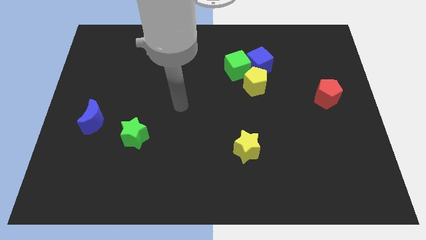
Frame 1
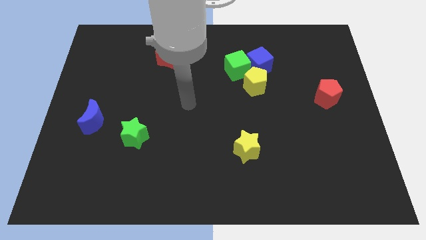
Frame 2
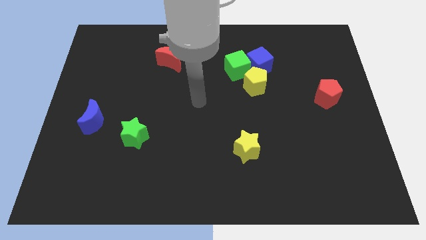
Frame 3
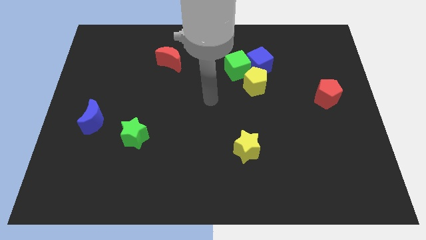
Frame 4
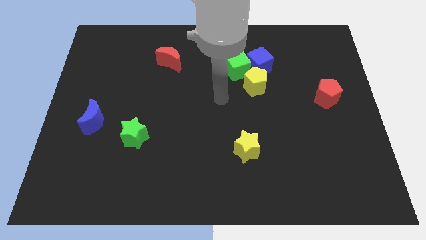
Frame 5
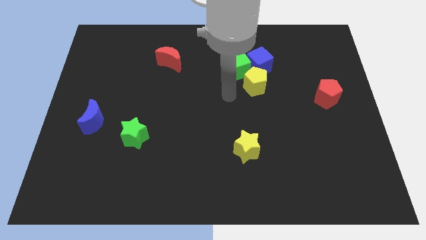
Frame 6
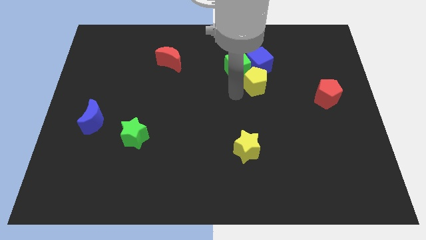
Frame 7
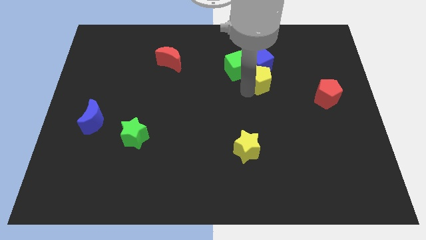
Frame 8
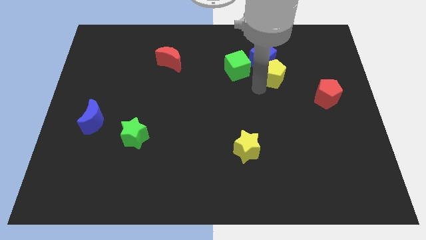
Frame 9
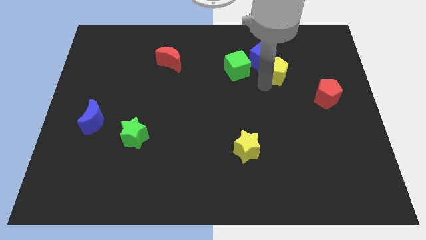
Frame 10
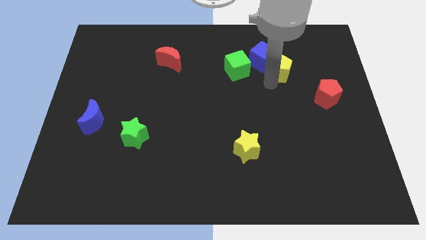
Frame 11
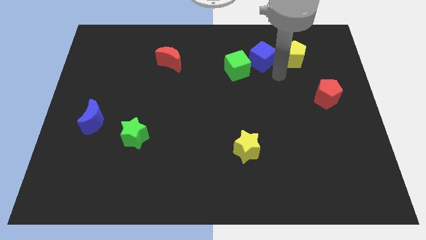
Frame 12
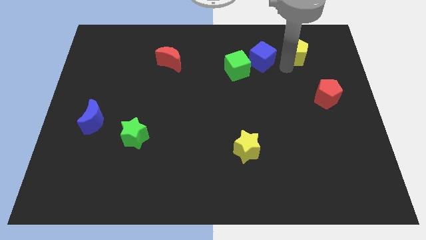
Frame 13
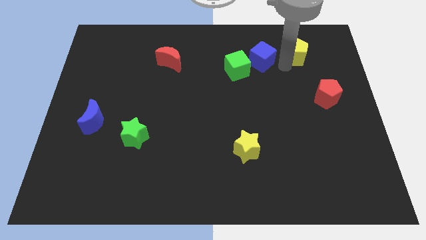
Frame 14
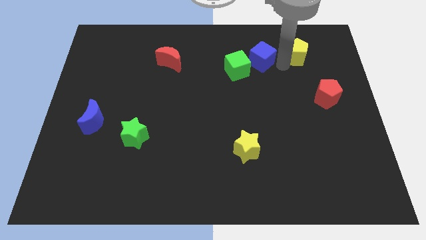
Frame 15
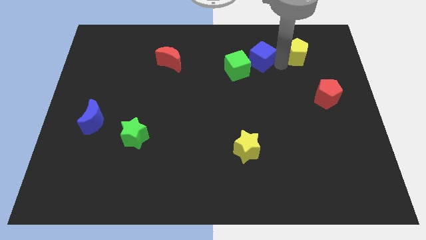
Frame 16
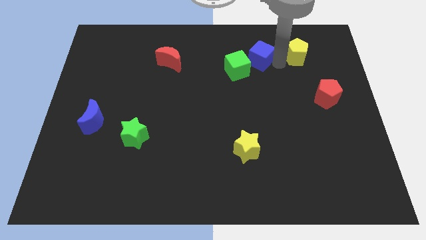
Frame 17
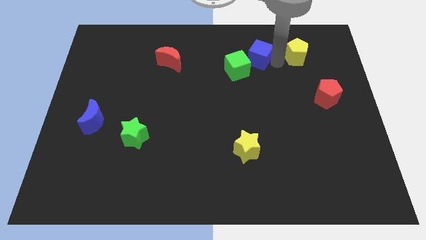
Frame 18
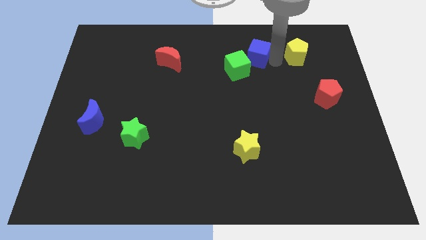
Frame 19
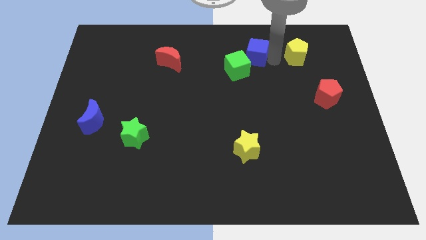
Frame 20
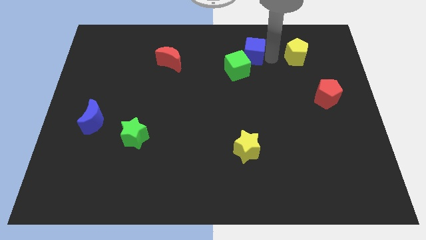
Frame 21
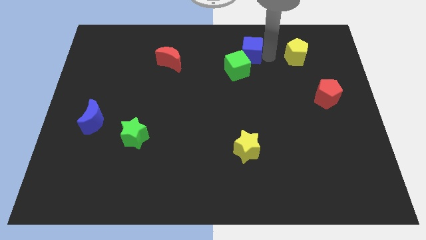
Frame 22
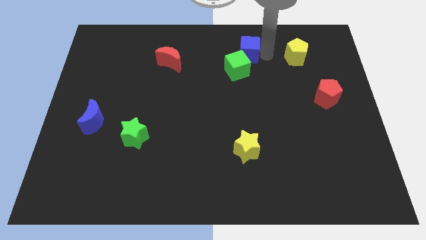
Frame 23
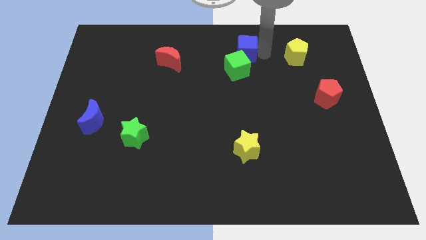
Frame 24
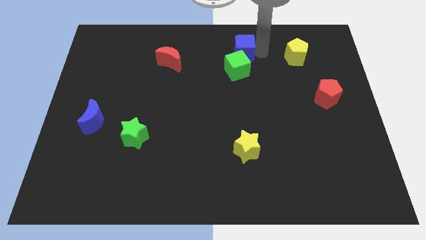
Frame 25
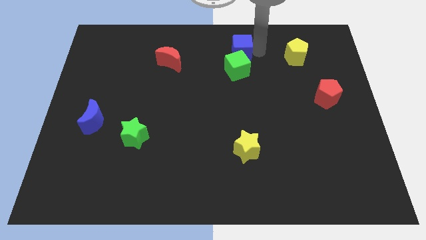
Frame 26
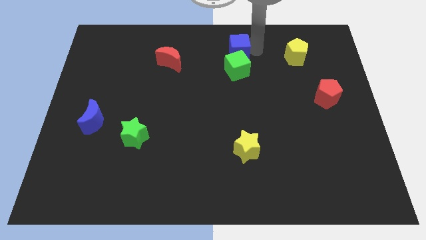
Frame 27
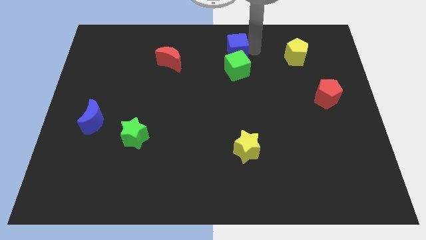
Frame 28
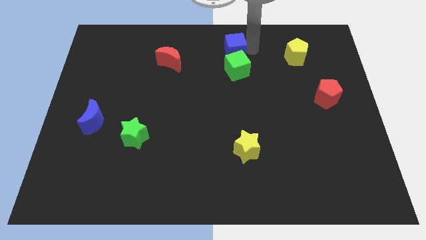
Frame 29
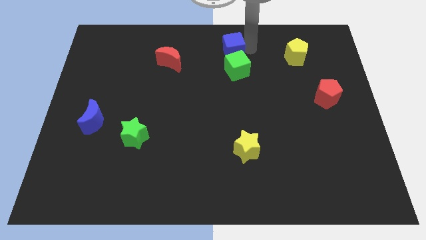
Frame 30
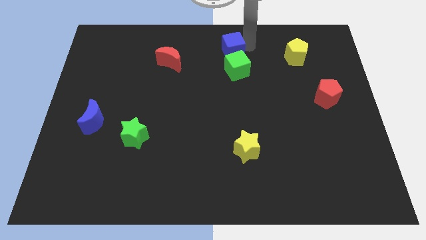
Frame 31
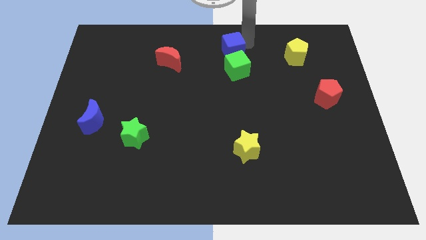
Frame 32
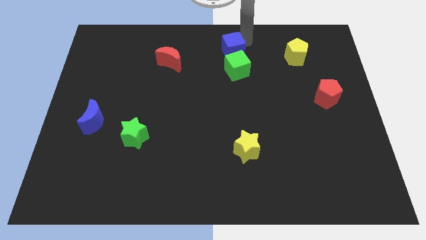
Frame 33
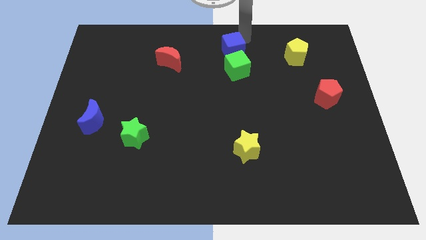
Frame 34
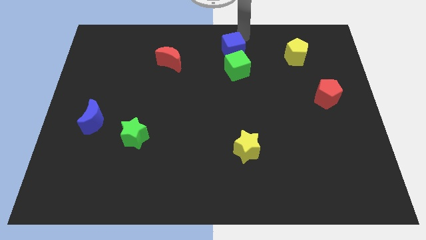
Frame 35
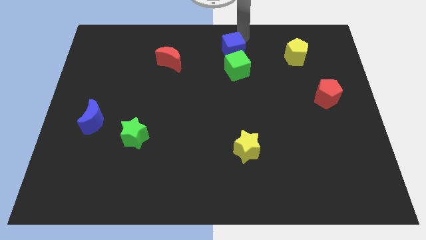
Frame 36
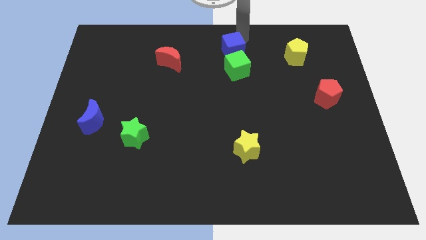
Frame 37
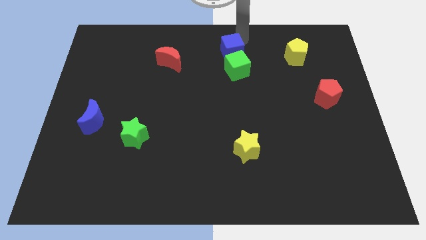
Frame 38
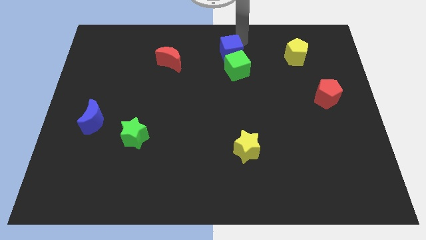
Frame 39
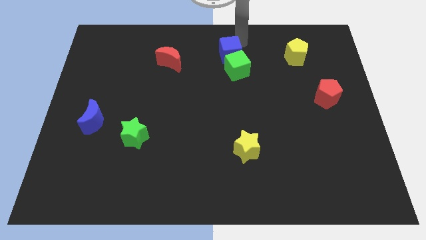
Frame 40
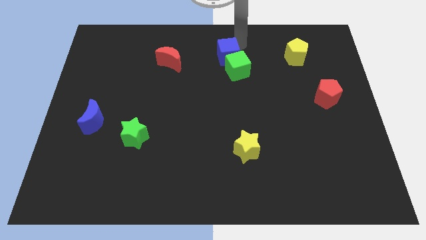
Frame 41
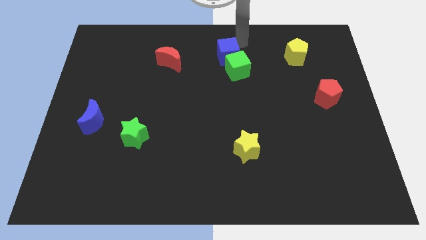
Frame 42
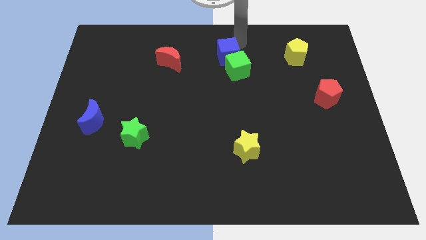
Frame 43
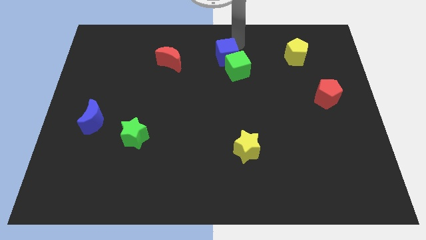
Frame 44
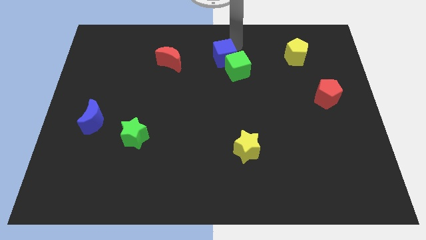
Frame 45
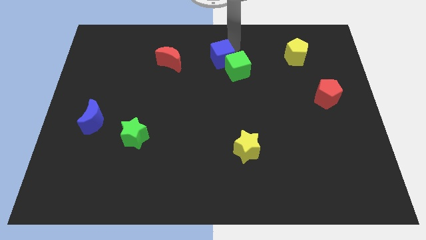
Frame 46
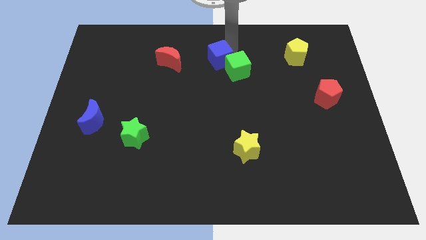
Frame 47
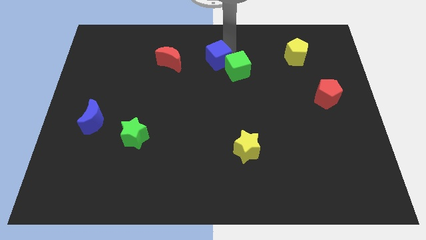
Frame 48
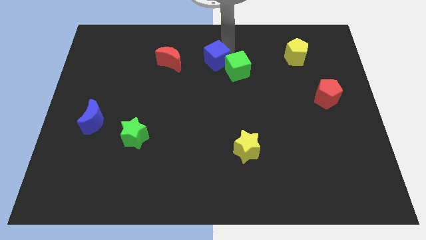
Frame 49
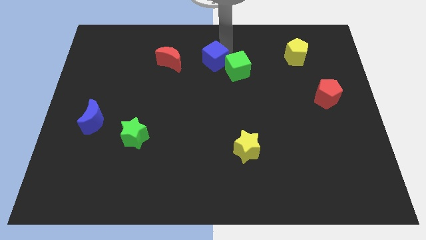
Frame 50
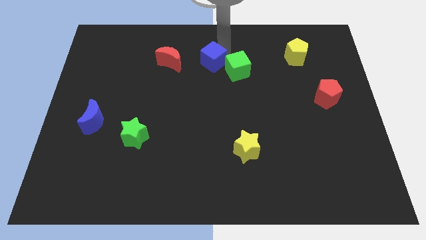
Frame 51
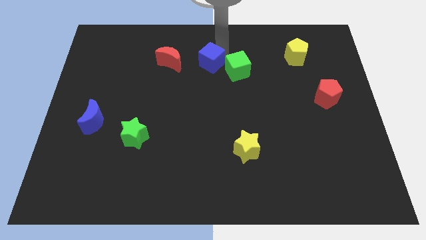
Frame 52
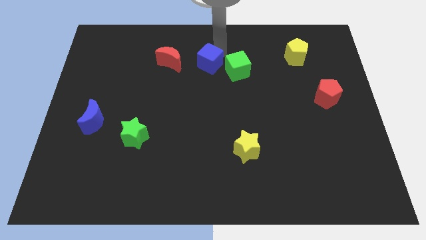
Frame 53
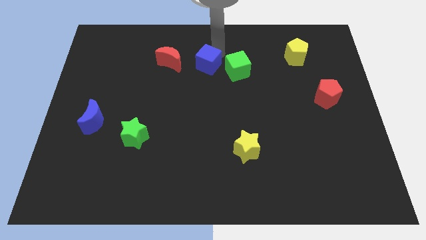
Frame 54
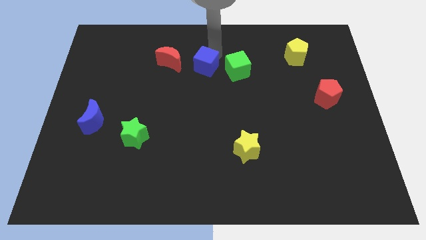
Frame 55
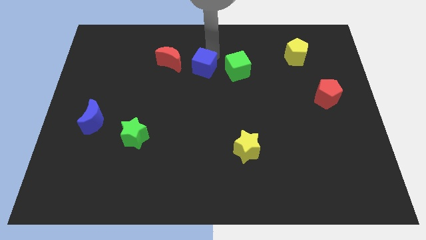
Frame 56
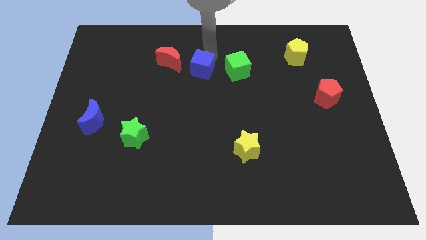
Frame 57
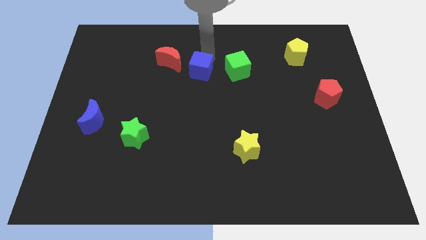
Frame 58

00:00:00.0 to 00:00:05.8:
push the blue cube a little bit down and to the left

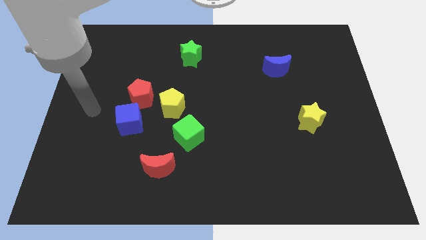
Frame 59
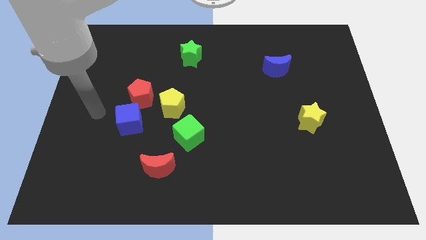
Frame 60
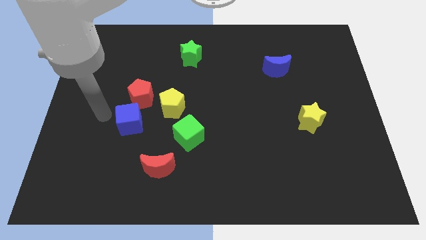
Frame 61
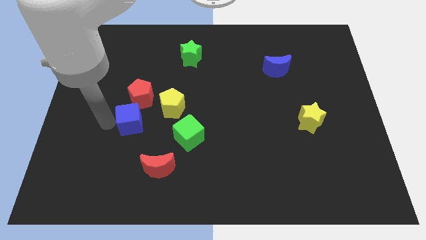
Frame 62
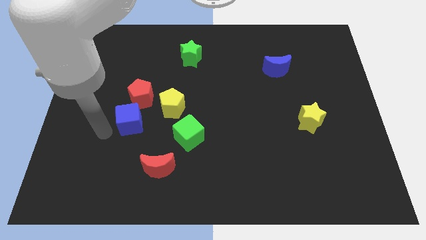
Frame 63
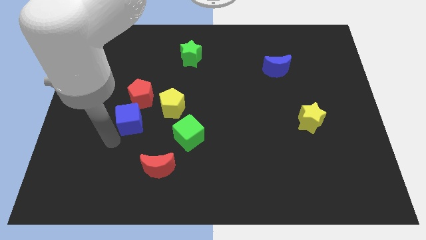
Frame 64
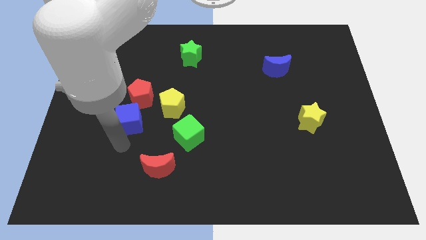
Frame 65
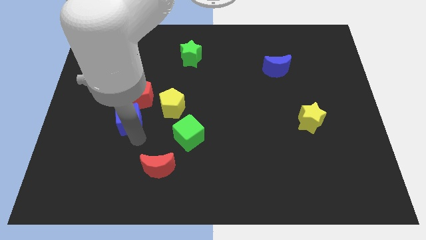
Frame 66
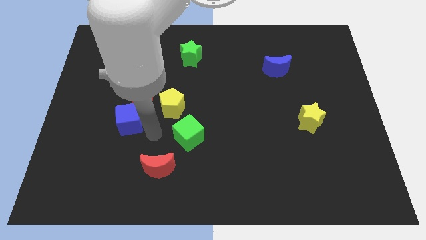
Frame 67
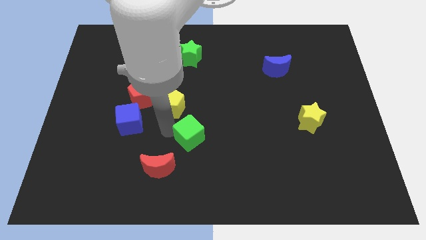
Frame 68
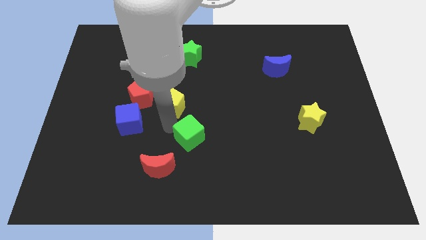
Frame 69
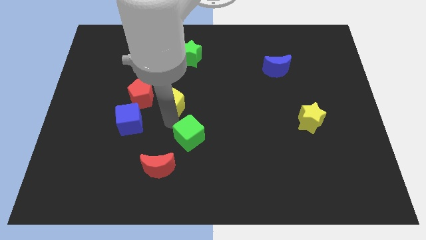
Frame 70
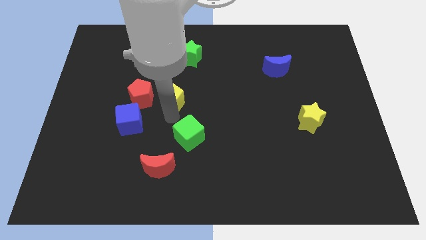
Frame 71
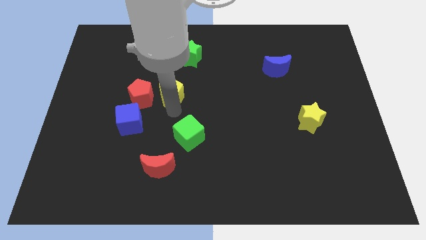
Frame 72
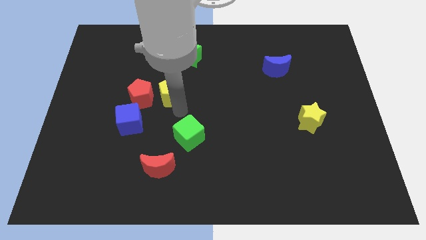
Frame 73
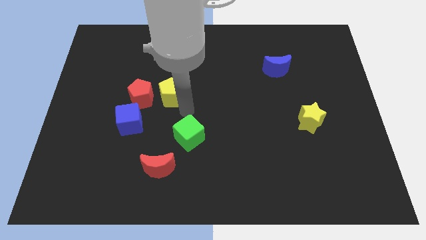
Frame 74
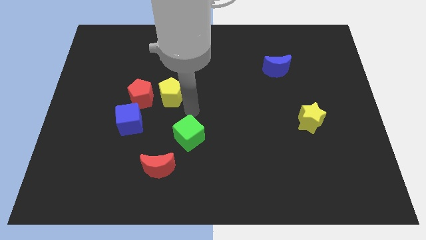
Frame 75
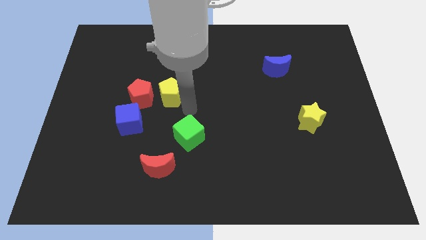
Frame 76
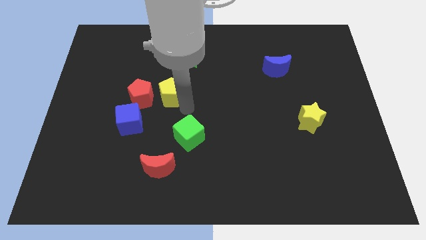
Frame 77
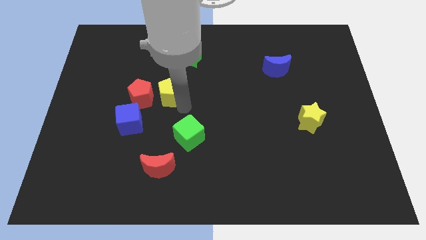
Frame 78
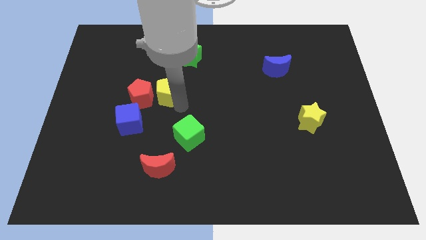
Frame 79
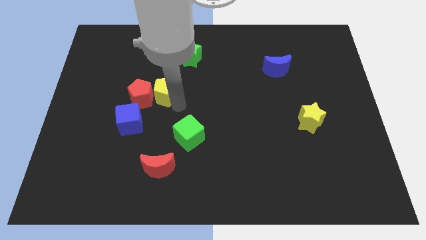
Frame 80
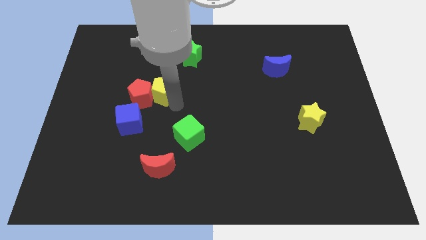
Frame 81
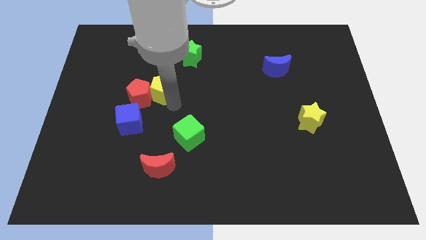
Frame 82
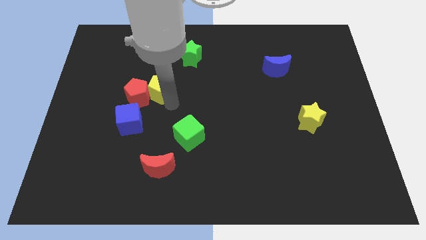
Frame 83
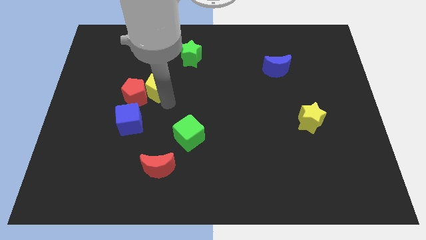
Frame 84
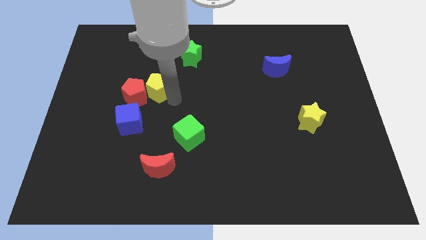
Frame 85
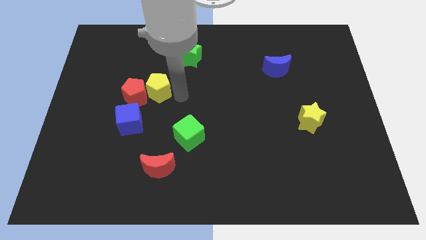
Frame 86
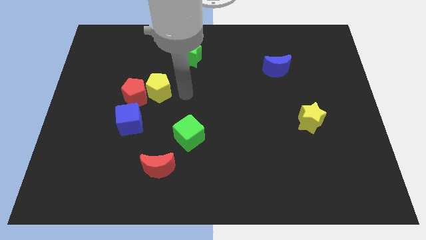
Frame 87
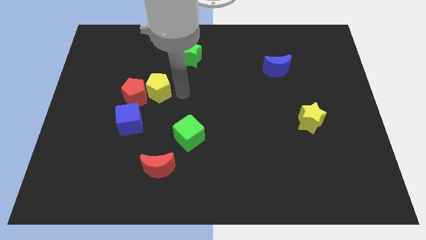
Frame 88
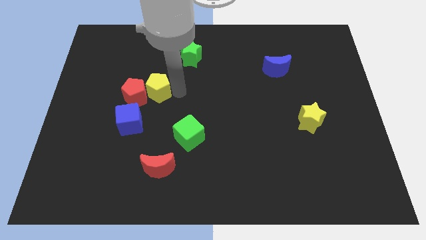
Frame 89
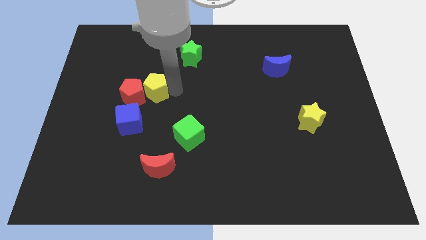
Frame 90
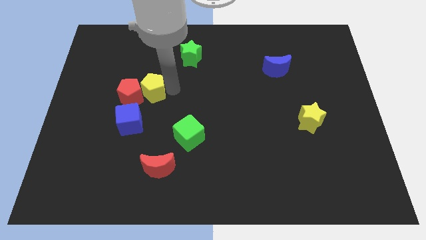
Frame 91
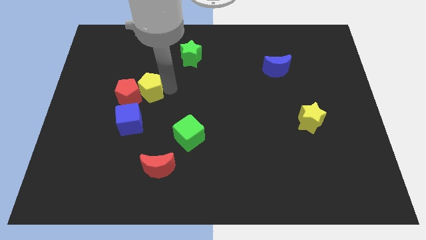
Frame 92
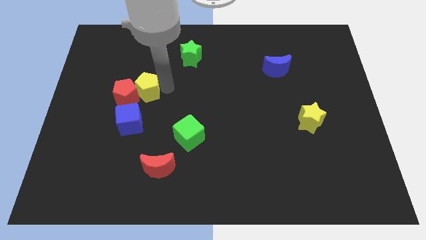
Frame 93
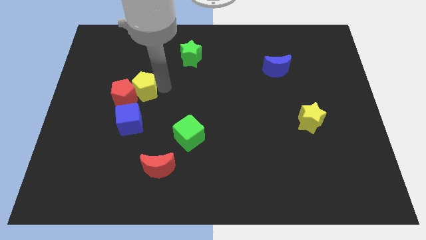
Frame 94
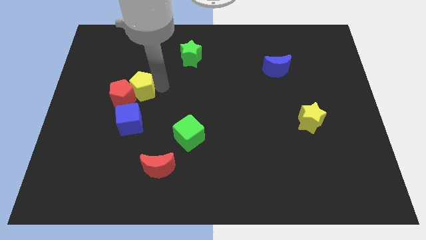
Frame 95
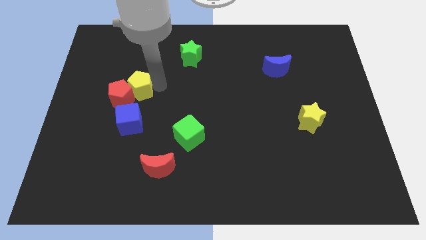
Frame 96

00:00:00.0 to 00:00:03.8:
push the yellow pentagon a little to the left
